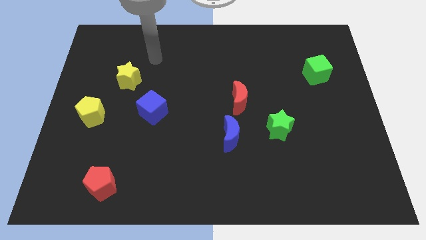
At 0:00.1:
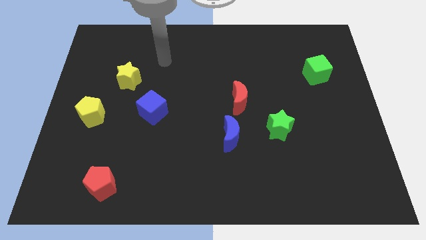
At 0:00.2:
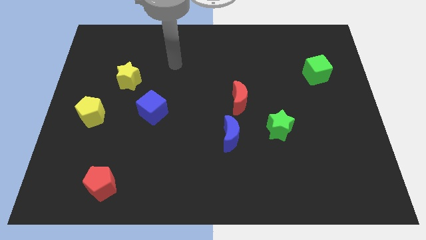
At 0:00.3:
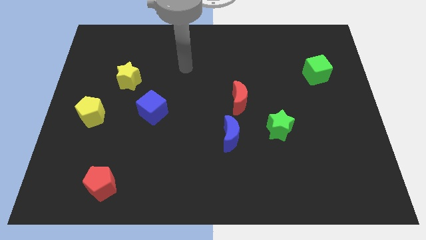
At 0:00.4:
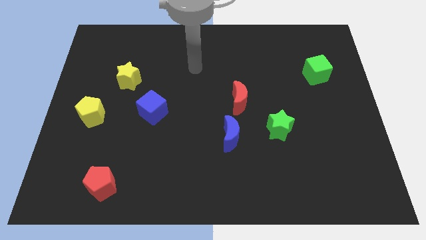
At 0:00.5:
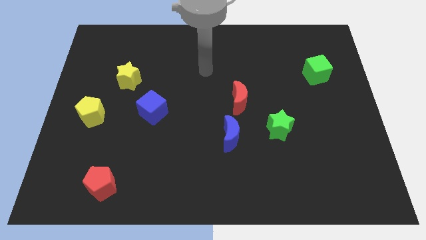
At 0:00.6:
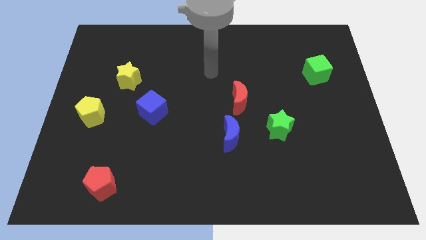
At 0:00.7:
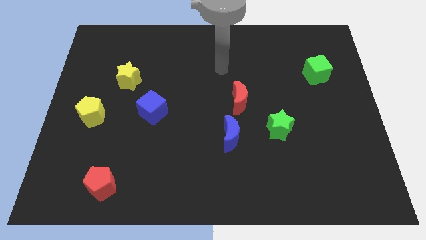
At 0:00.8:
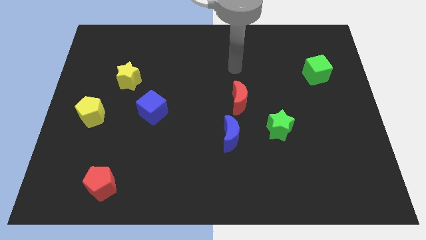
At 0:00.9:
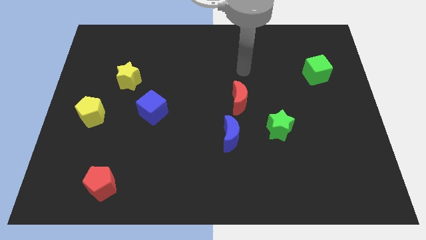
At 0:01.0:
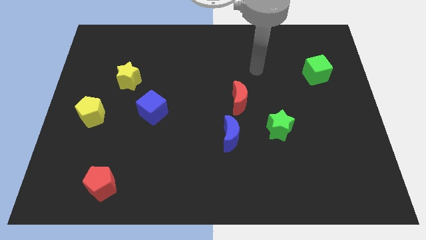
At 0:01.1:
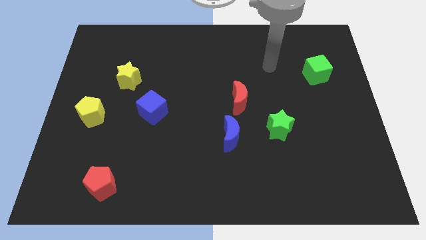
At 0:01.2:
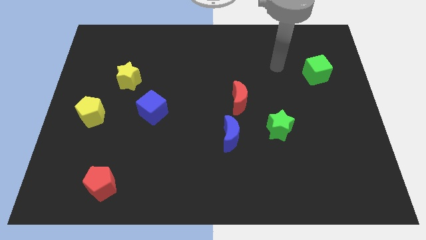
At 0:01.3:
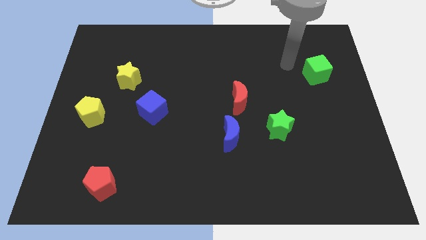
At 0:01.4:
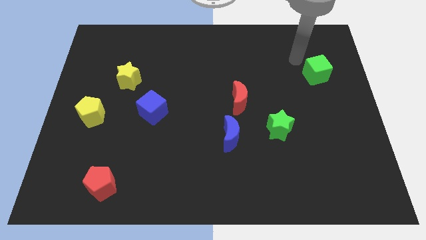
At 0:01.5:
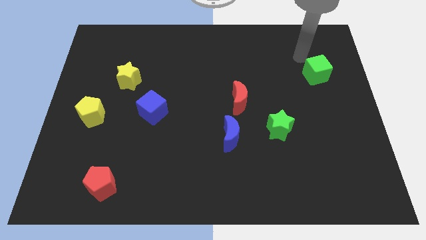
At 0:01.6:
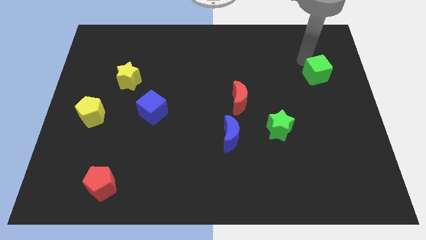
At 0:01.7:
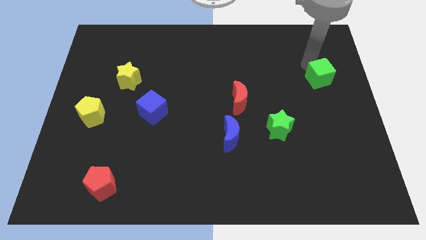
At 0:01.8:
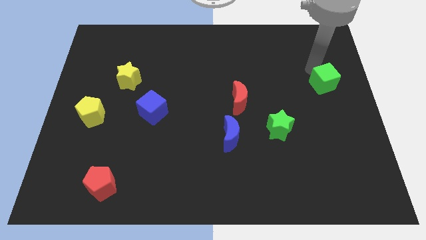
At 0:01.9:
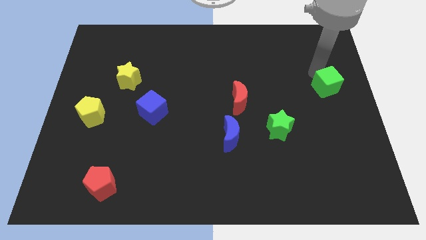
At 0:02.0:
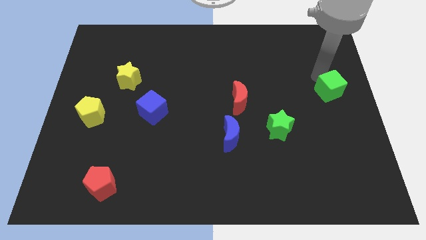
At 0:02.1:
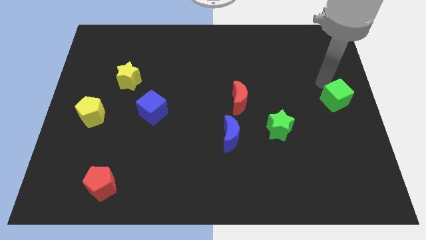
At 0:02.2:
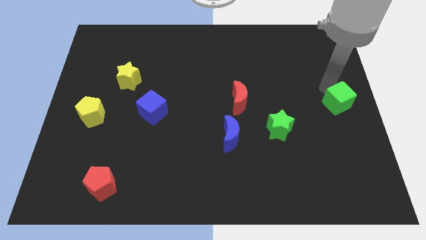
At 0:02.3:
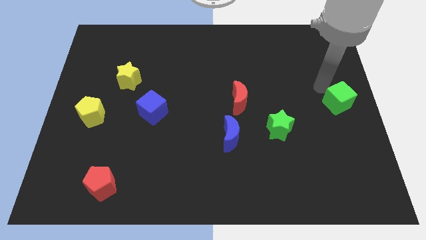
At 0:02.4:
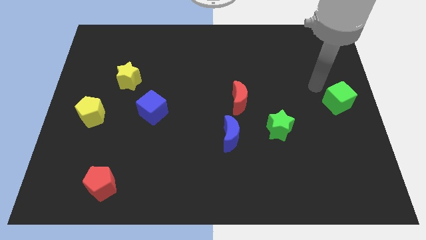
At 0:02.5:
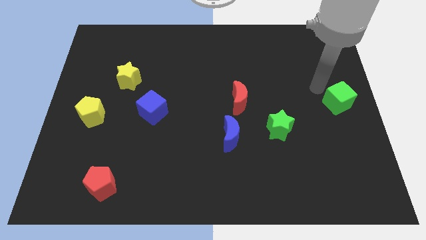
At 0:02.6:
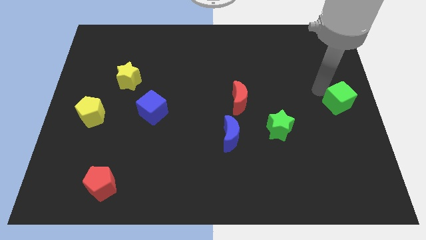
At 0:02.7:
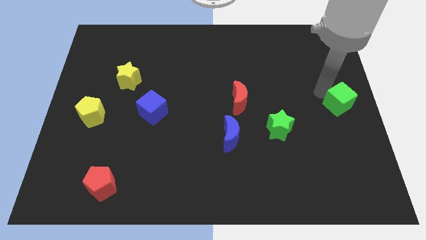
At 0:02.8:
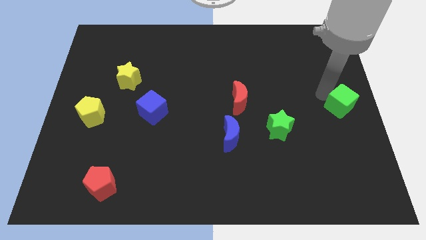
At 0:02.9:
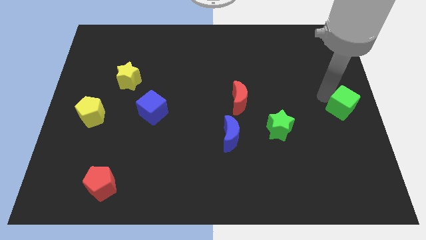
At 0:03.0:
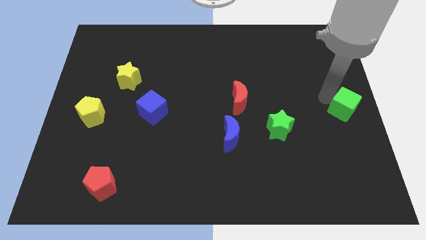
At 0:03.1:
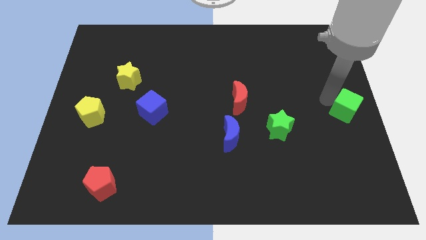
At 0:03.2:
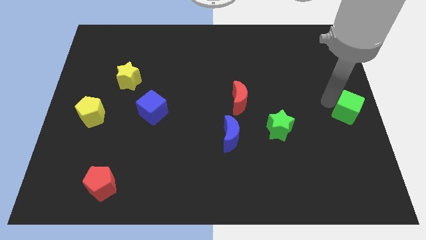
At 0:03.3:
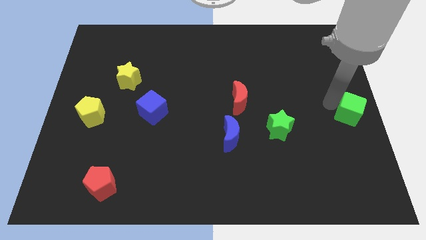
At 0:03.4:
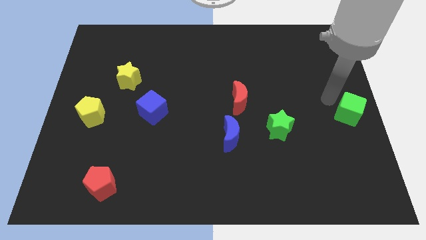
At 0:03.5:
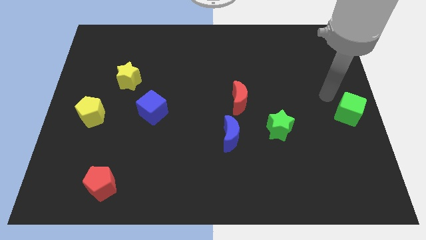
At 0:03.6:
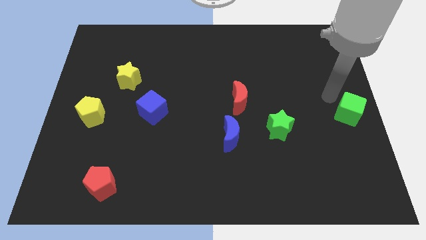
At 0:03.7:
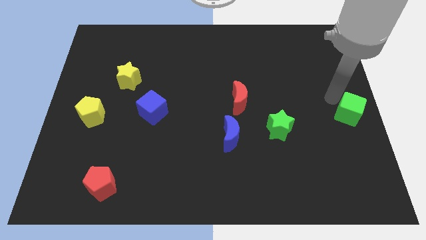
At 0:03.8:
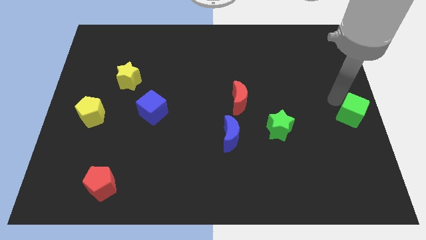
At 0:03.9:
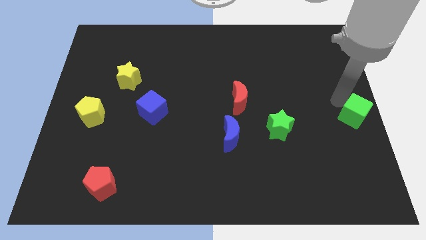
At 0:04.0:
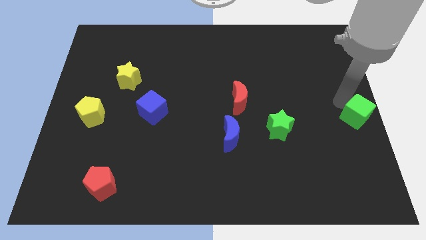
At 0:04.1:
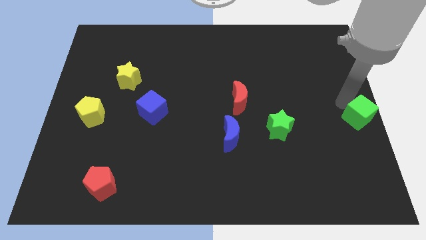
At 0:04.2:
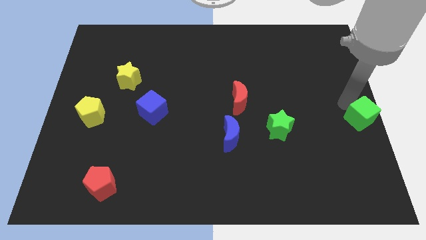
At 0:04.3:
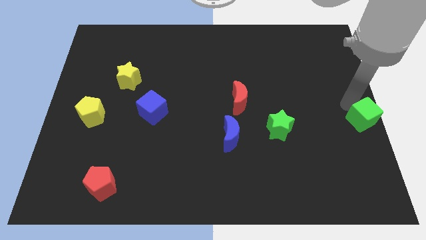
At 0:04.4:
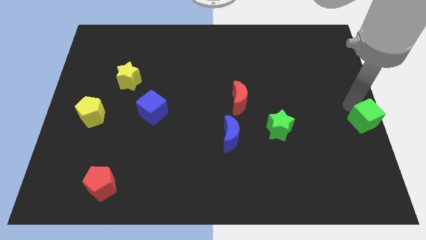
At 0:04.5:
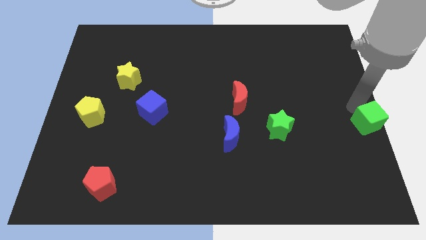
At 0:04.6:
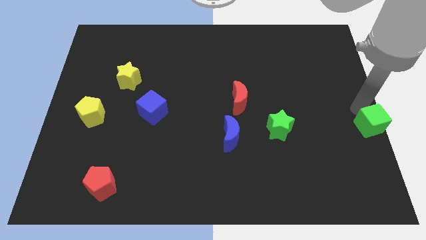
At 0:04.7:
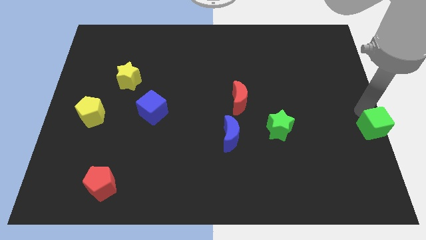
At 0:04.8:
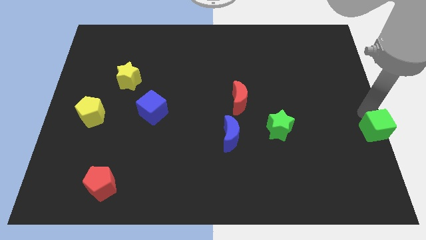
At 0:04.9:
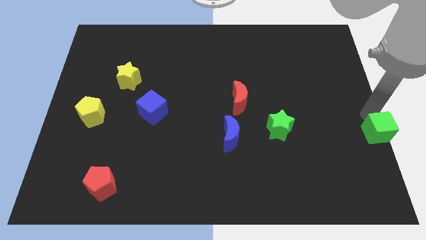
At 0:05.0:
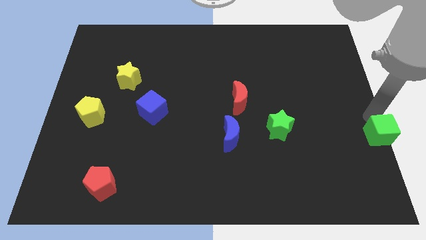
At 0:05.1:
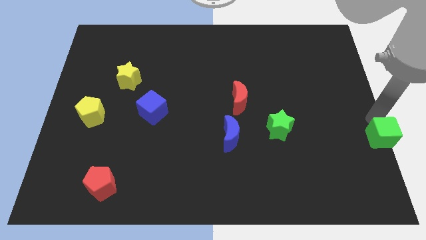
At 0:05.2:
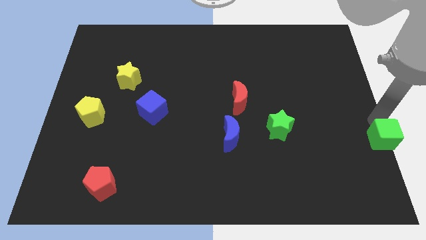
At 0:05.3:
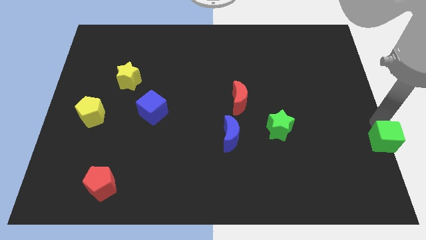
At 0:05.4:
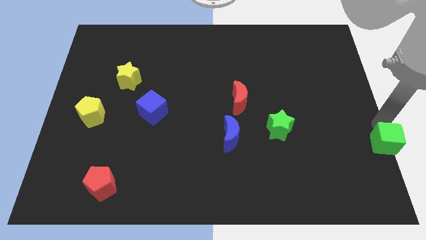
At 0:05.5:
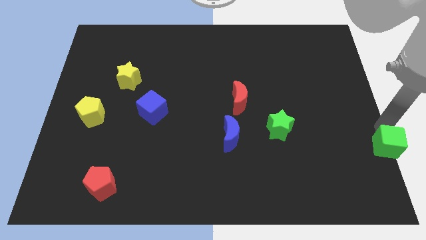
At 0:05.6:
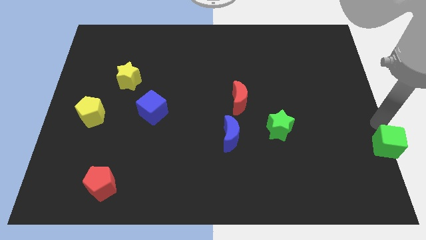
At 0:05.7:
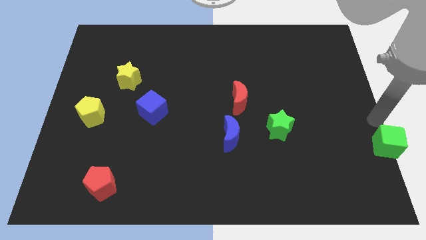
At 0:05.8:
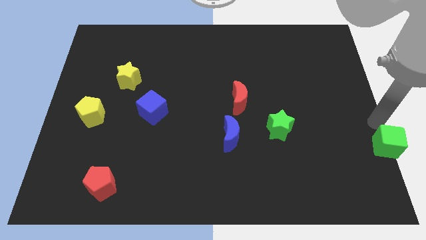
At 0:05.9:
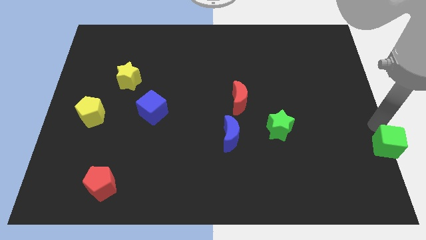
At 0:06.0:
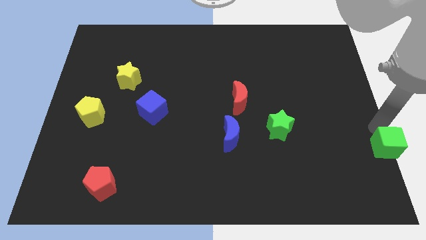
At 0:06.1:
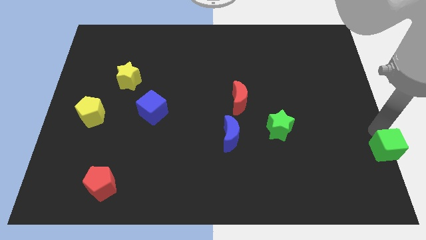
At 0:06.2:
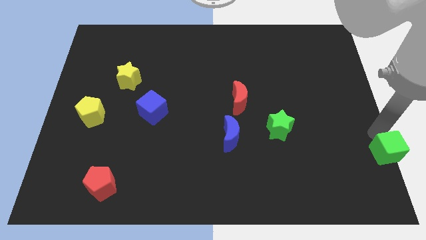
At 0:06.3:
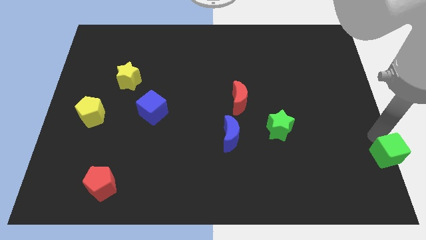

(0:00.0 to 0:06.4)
push the green cube to the lower right corner
